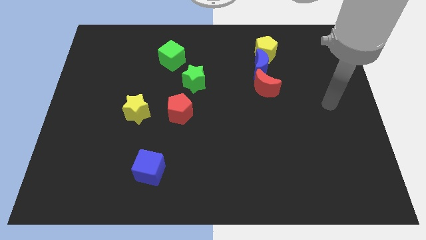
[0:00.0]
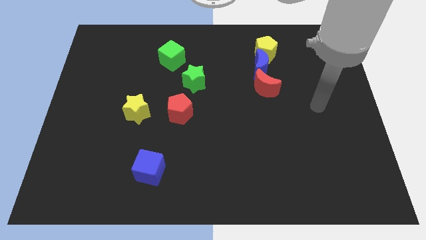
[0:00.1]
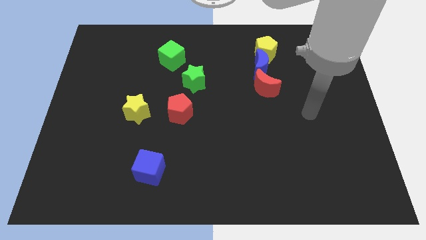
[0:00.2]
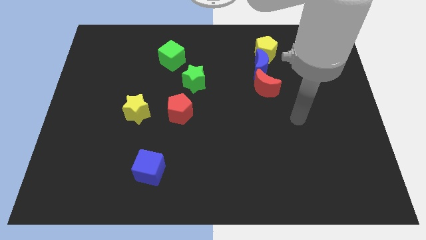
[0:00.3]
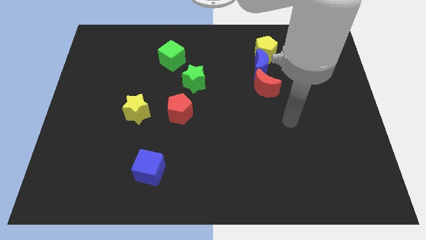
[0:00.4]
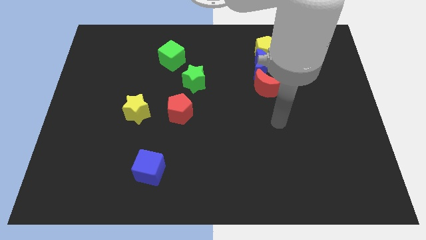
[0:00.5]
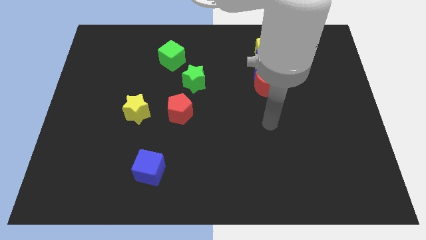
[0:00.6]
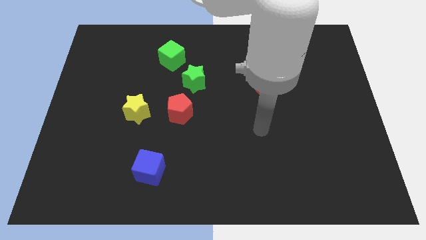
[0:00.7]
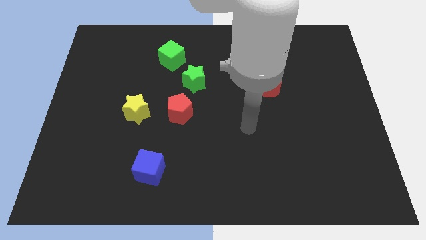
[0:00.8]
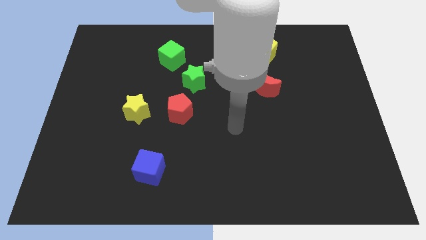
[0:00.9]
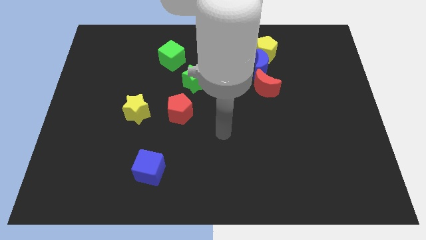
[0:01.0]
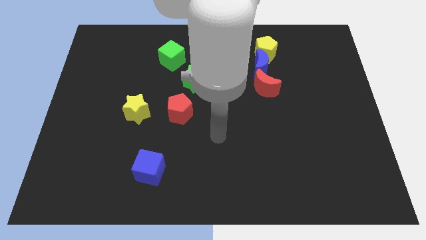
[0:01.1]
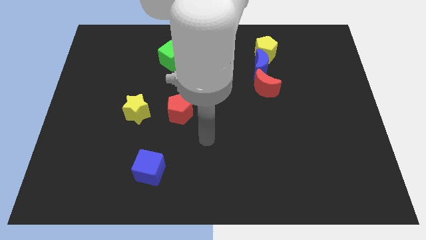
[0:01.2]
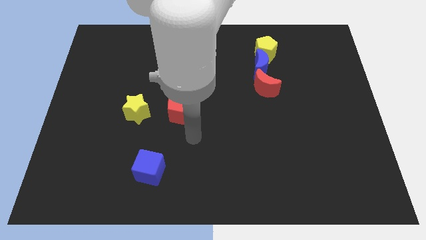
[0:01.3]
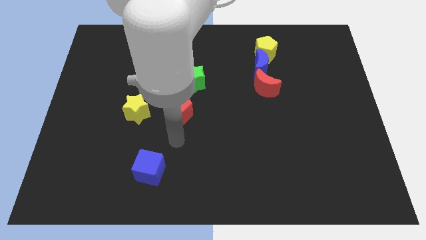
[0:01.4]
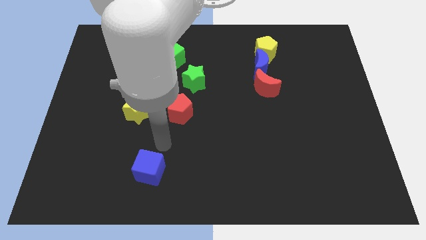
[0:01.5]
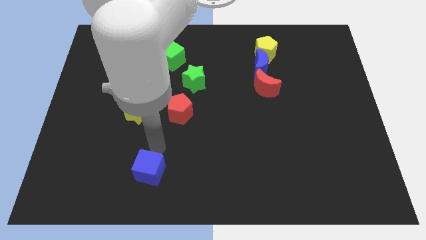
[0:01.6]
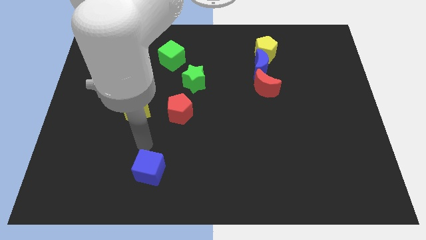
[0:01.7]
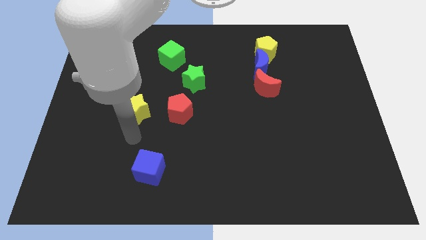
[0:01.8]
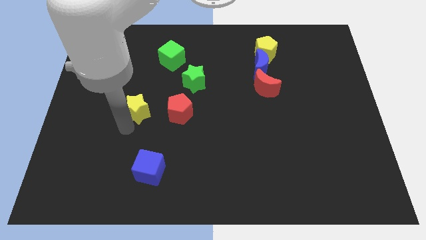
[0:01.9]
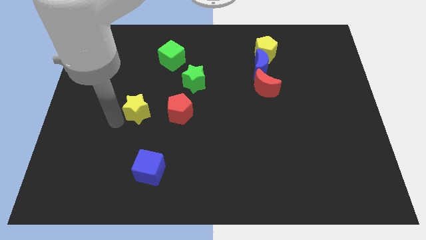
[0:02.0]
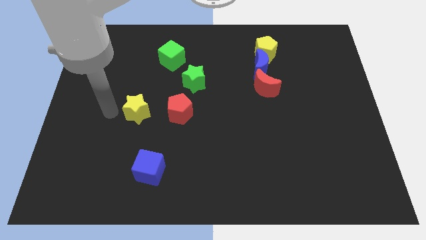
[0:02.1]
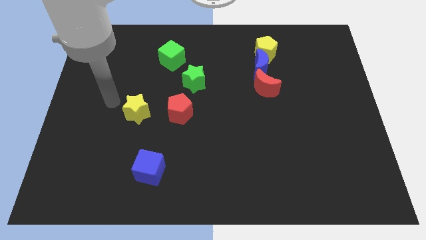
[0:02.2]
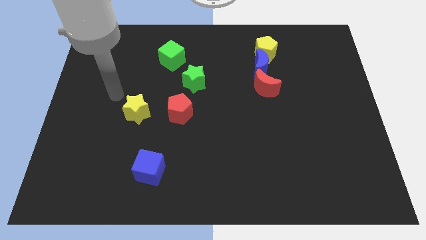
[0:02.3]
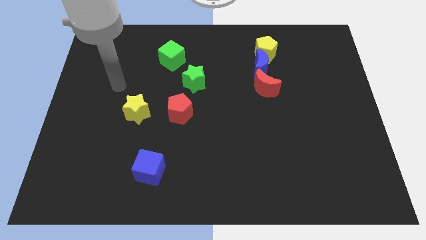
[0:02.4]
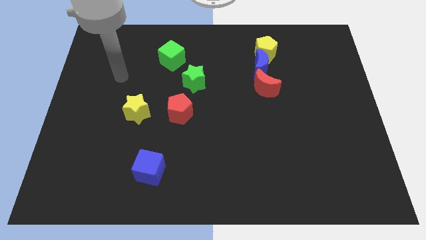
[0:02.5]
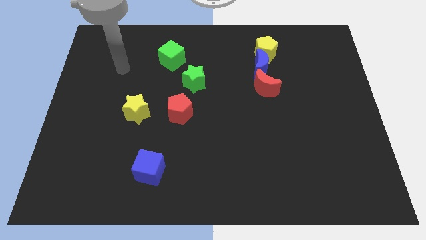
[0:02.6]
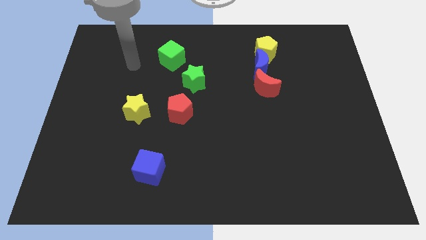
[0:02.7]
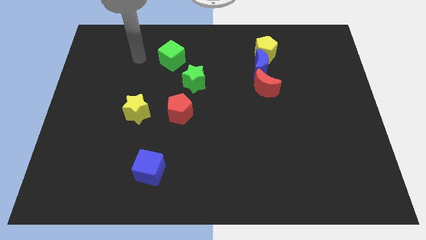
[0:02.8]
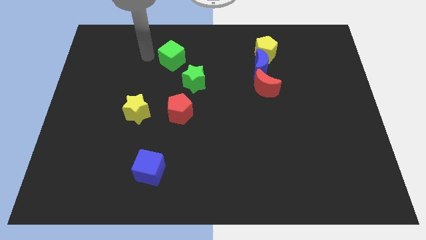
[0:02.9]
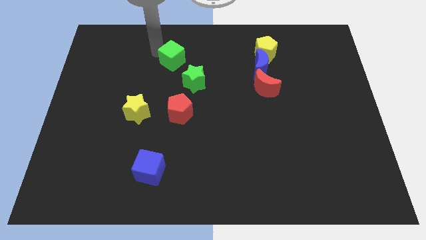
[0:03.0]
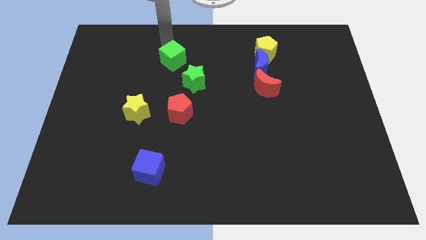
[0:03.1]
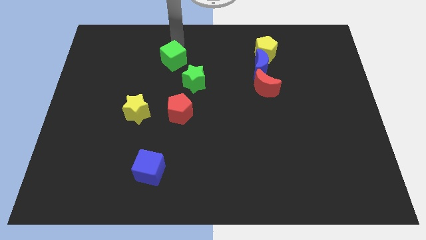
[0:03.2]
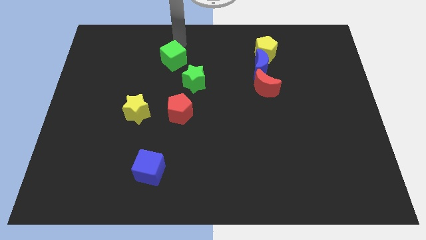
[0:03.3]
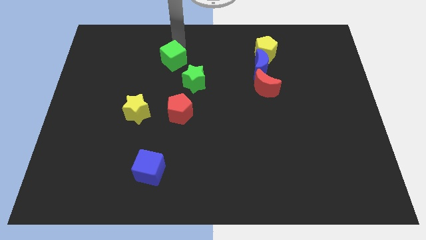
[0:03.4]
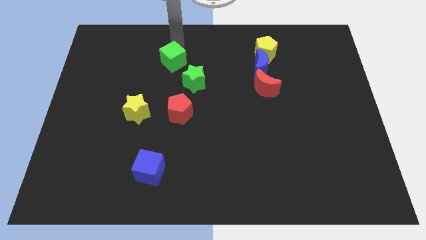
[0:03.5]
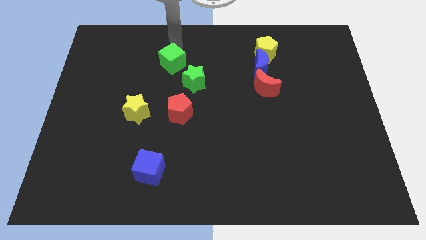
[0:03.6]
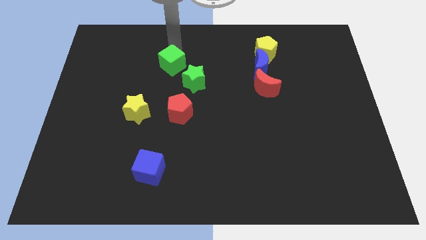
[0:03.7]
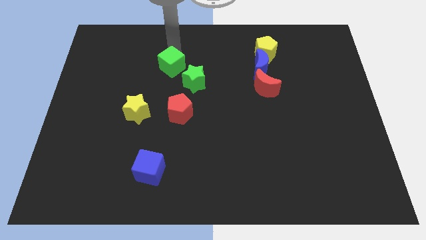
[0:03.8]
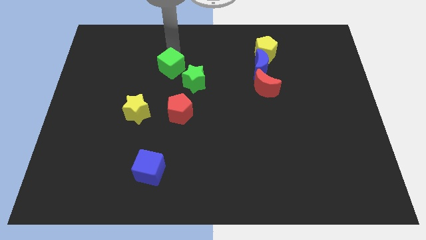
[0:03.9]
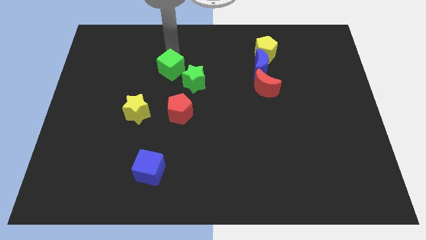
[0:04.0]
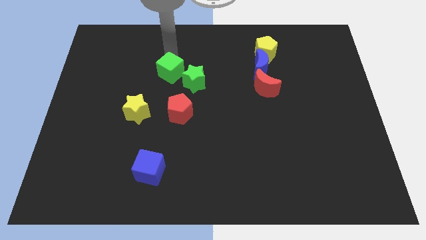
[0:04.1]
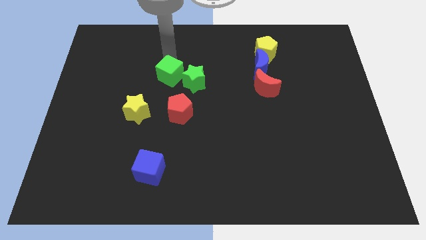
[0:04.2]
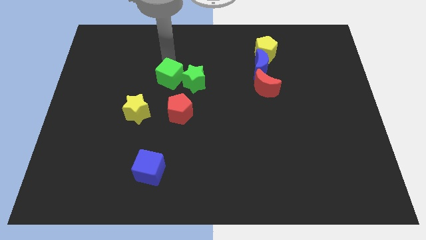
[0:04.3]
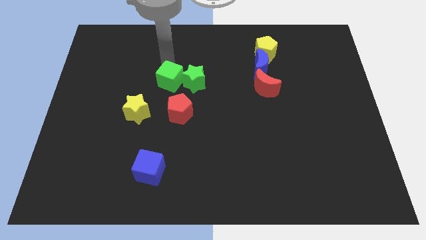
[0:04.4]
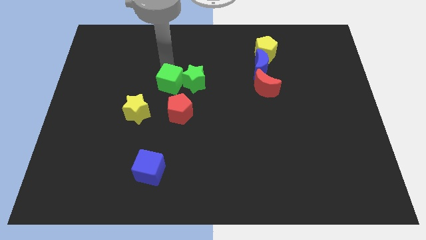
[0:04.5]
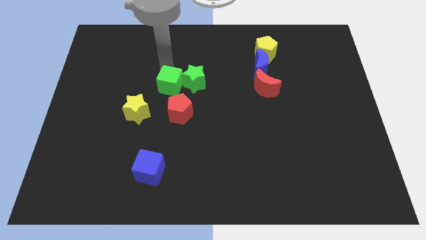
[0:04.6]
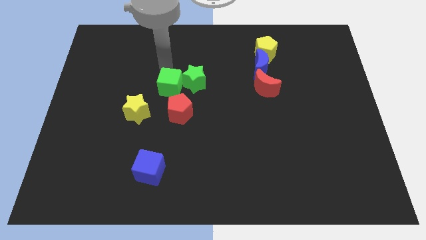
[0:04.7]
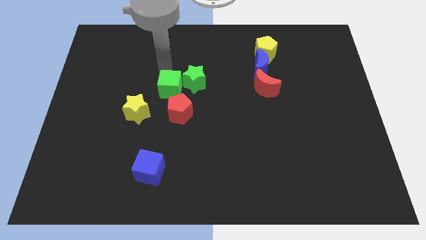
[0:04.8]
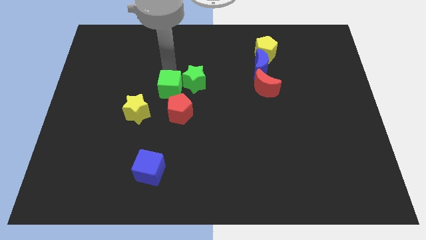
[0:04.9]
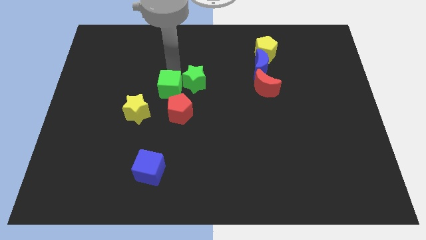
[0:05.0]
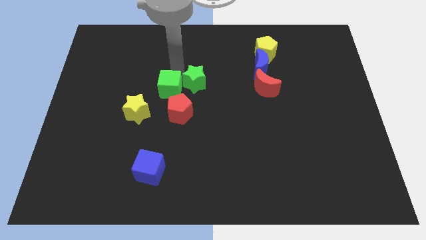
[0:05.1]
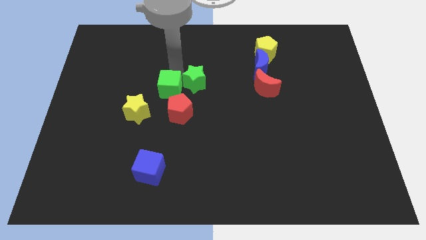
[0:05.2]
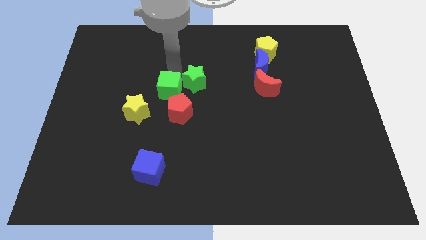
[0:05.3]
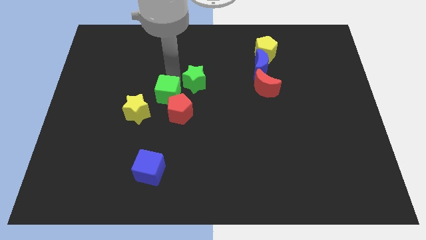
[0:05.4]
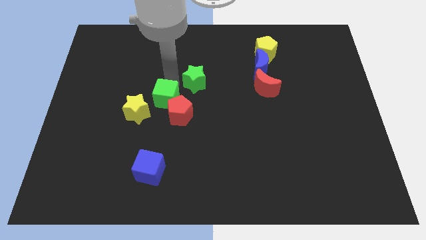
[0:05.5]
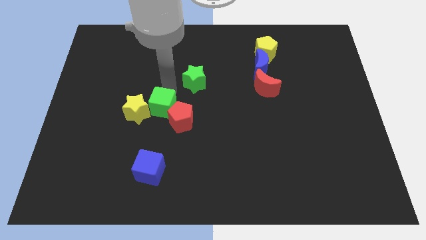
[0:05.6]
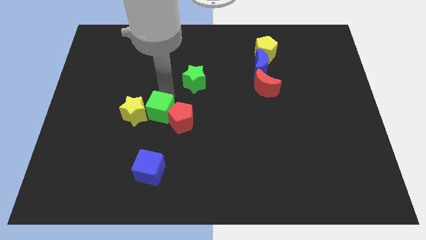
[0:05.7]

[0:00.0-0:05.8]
move the green cube to the top of the blue cube

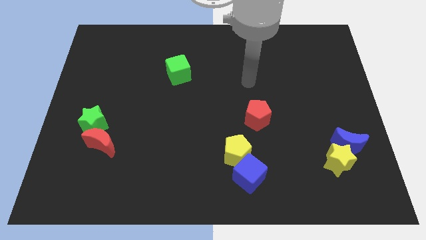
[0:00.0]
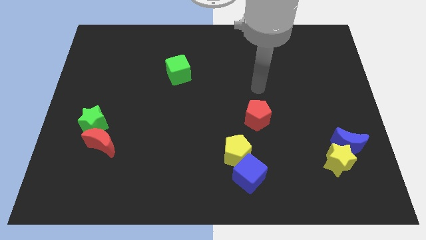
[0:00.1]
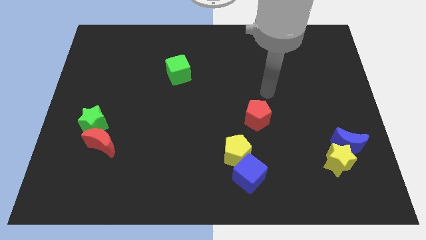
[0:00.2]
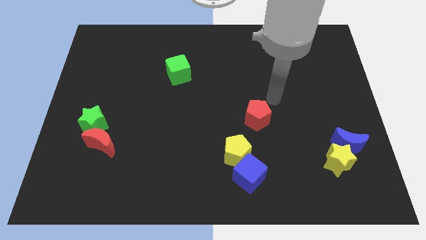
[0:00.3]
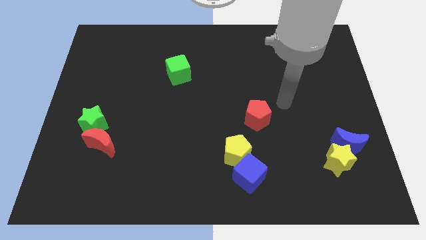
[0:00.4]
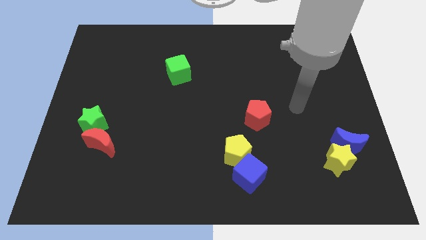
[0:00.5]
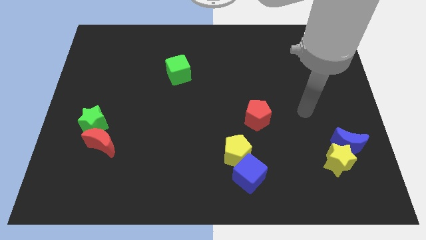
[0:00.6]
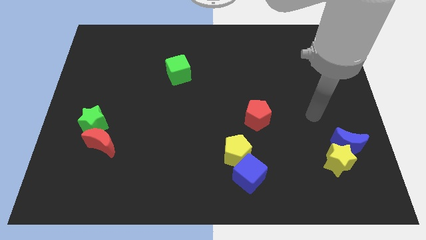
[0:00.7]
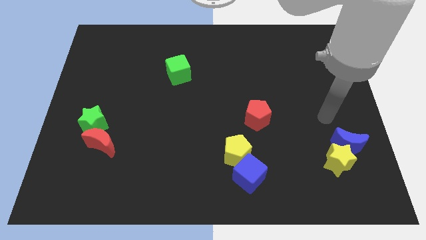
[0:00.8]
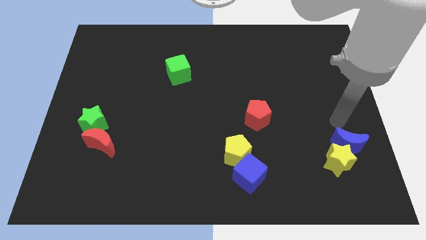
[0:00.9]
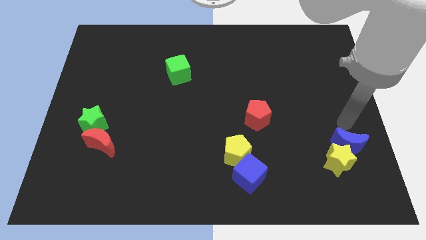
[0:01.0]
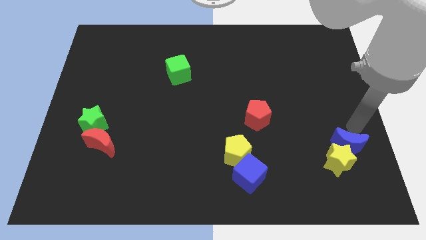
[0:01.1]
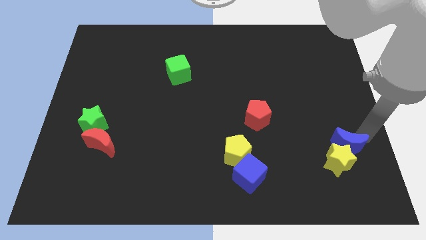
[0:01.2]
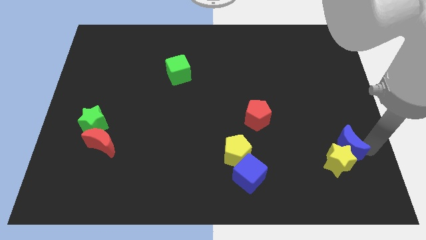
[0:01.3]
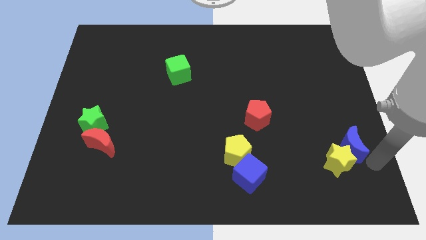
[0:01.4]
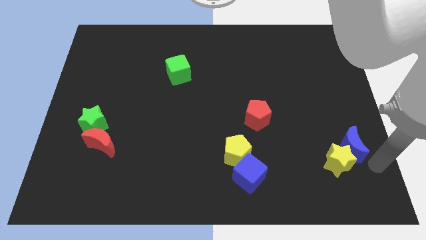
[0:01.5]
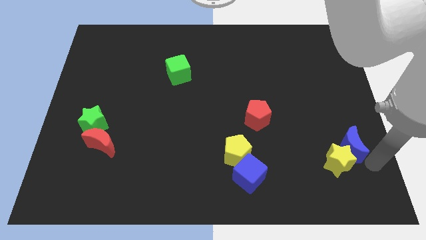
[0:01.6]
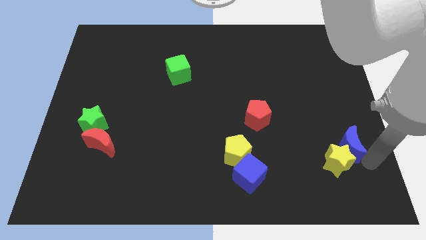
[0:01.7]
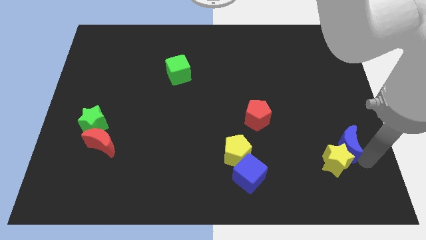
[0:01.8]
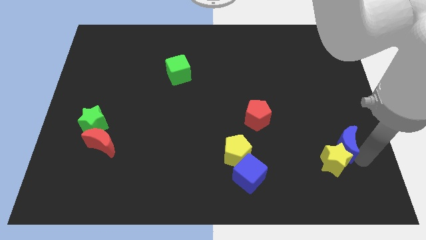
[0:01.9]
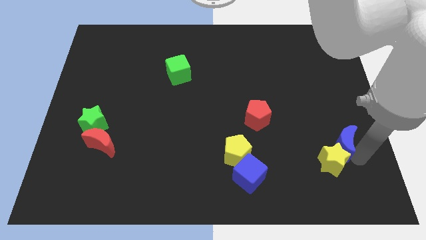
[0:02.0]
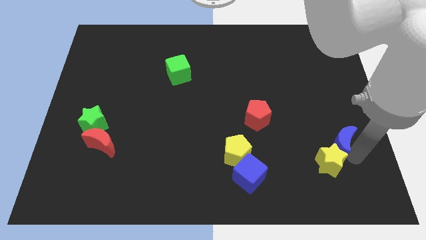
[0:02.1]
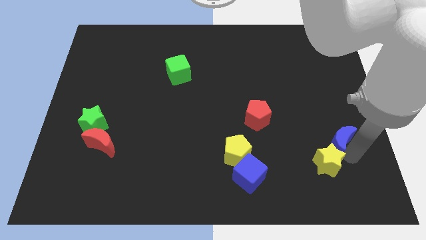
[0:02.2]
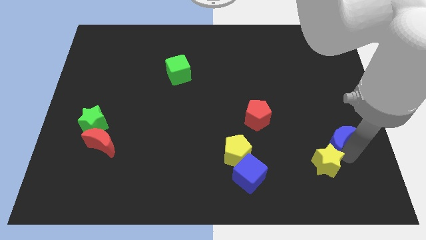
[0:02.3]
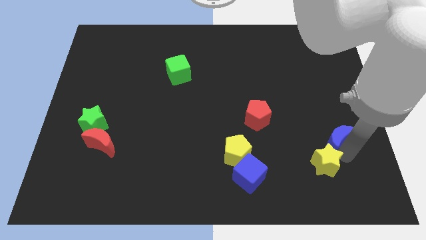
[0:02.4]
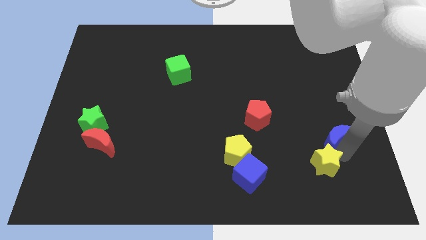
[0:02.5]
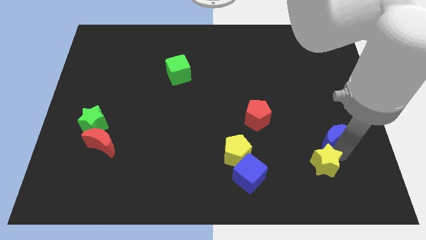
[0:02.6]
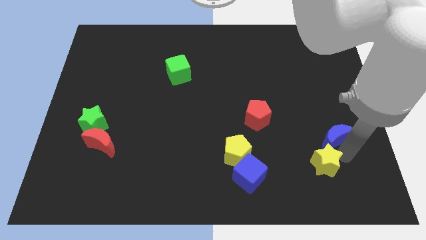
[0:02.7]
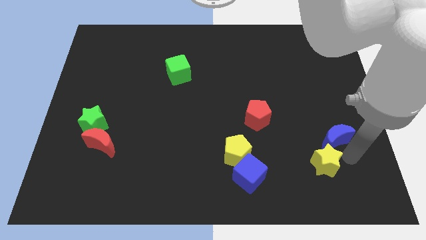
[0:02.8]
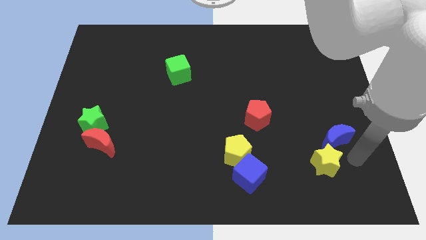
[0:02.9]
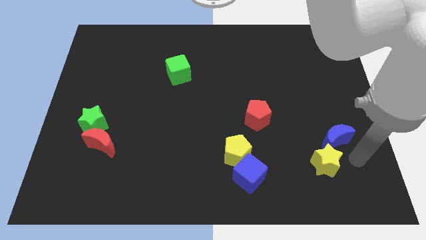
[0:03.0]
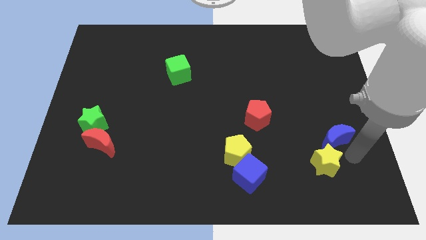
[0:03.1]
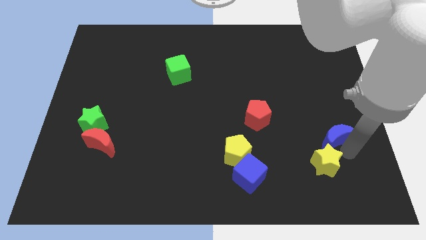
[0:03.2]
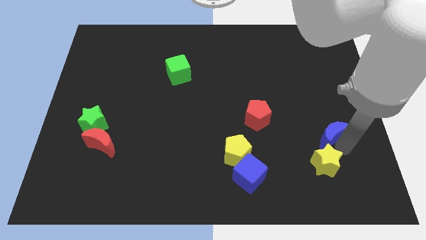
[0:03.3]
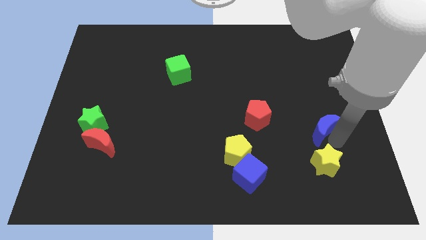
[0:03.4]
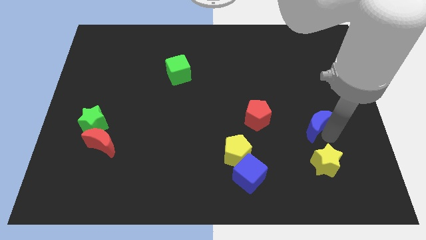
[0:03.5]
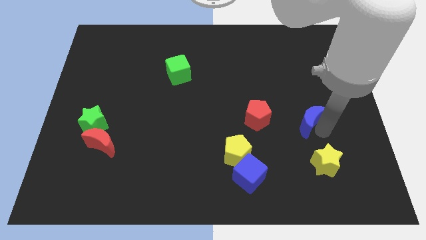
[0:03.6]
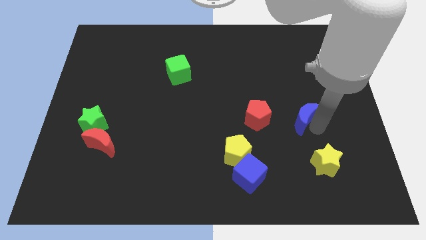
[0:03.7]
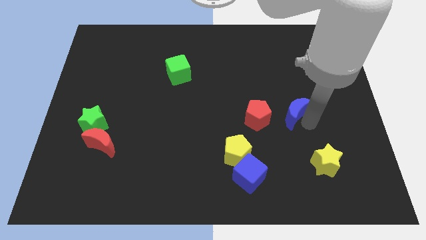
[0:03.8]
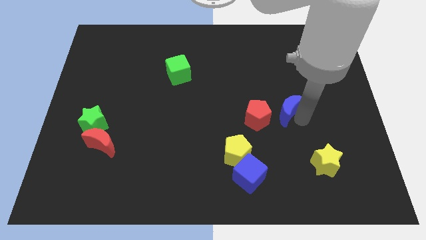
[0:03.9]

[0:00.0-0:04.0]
move the blue moon to the top right of the red pentagon
